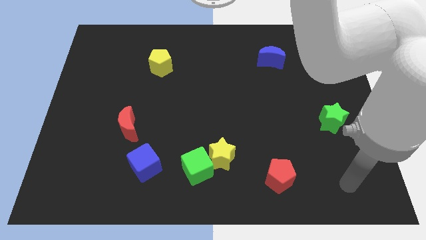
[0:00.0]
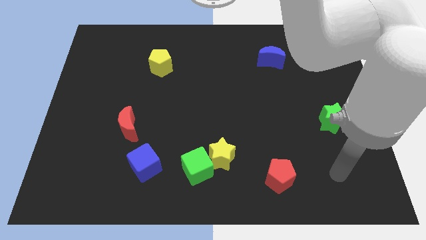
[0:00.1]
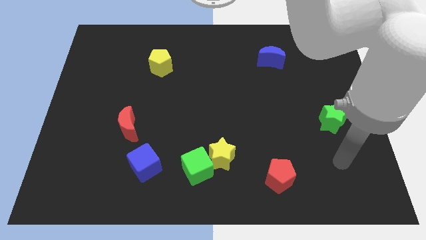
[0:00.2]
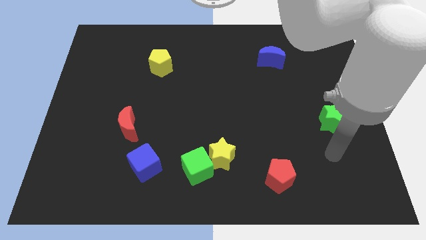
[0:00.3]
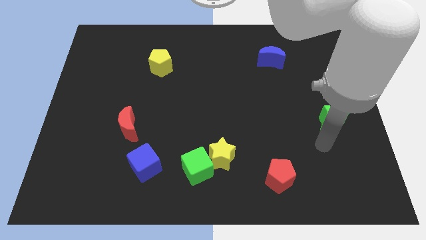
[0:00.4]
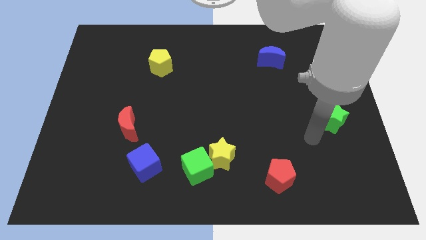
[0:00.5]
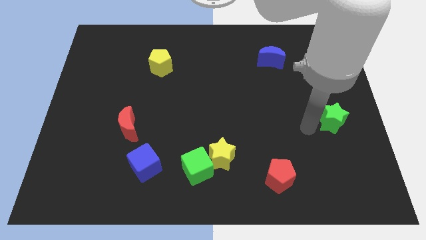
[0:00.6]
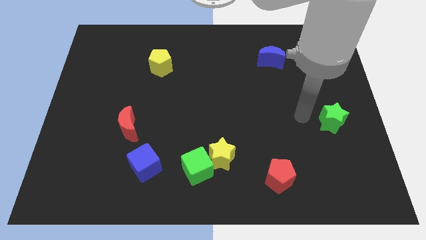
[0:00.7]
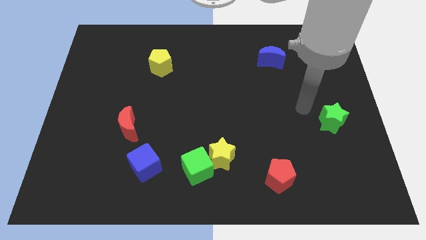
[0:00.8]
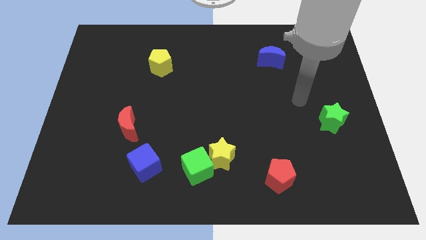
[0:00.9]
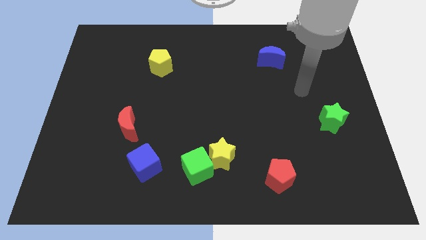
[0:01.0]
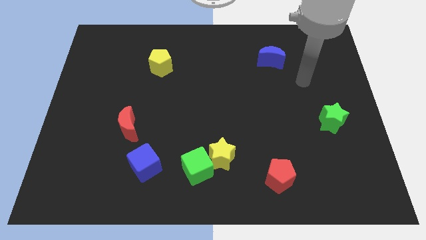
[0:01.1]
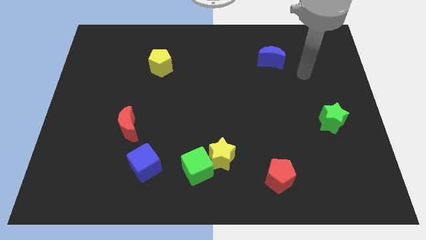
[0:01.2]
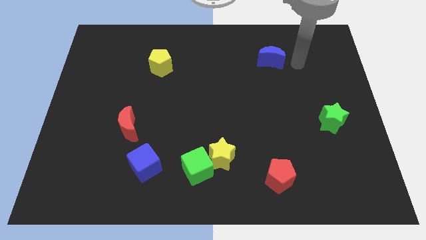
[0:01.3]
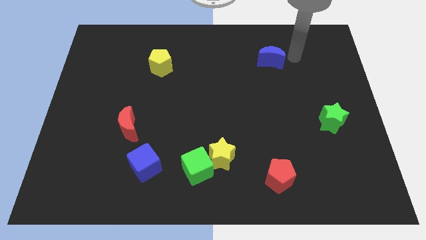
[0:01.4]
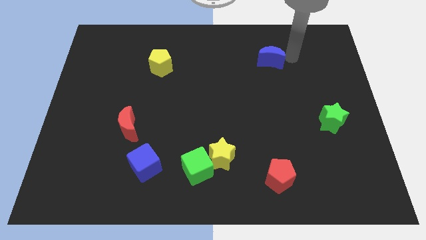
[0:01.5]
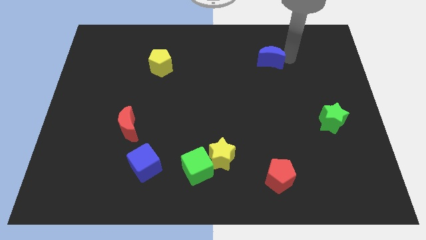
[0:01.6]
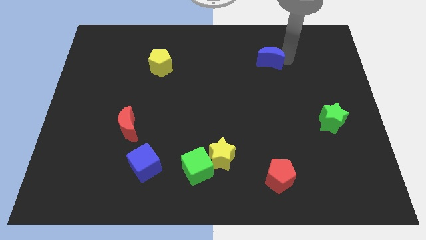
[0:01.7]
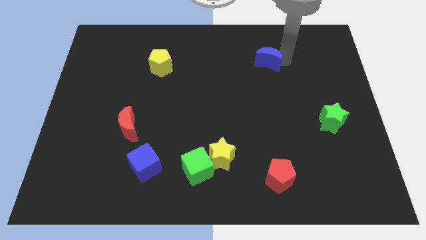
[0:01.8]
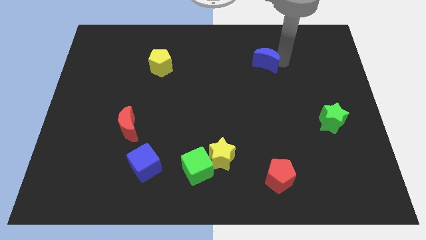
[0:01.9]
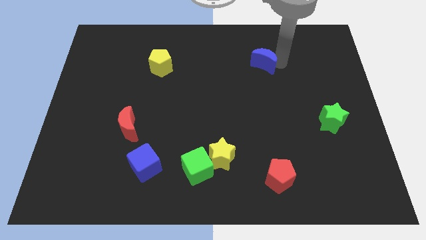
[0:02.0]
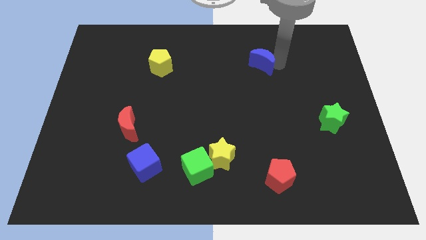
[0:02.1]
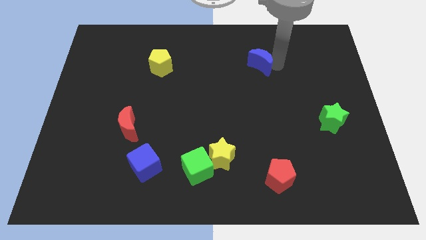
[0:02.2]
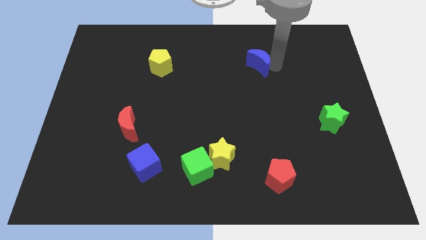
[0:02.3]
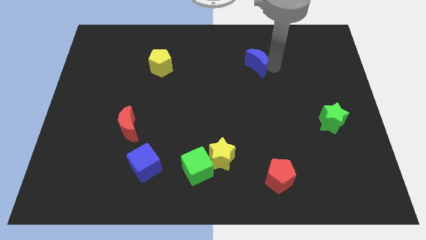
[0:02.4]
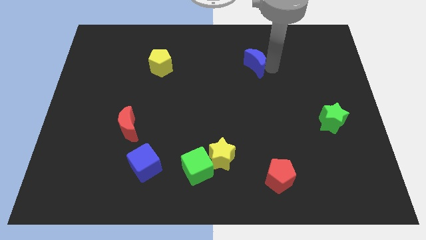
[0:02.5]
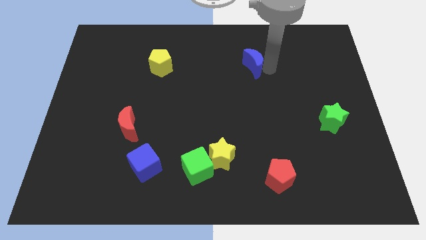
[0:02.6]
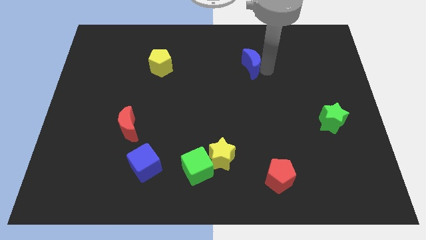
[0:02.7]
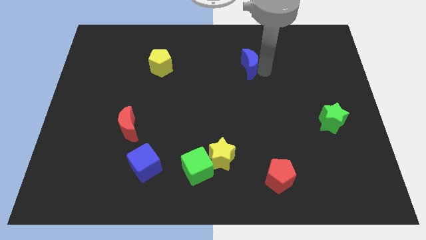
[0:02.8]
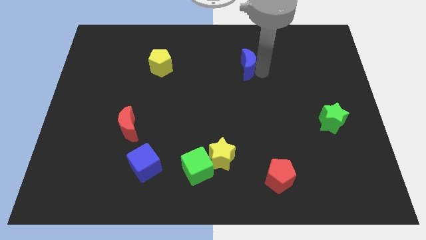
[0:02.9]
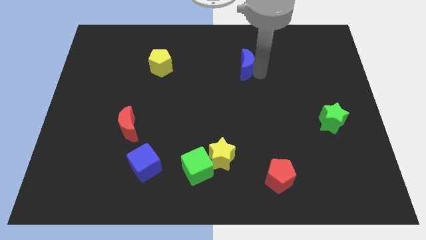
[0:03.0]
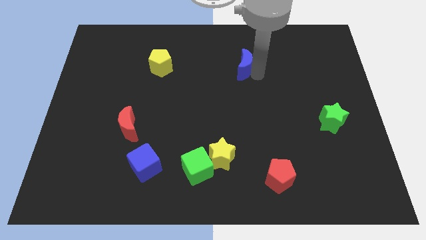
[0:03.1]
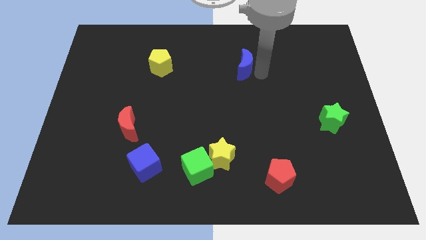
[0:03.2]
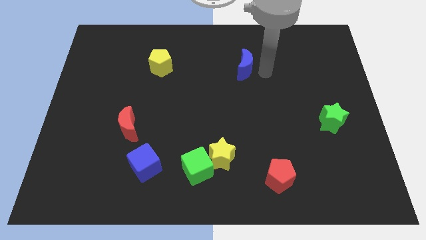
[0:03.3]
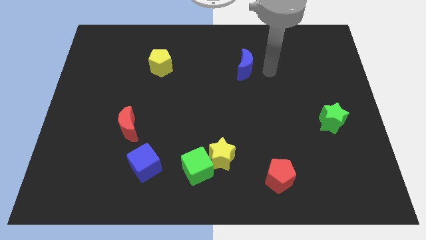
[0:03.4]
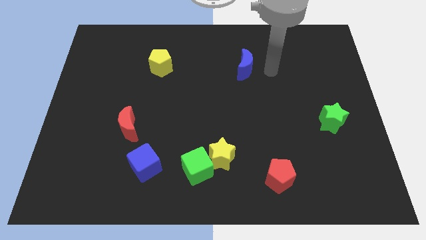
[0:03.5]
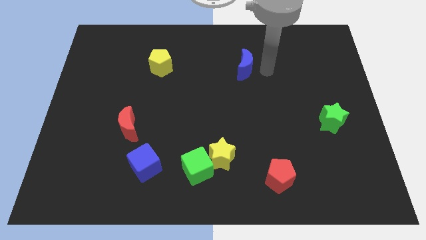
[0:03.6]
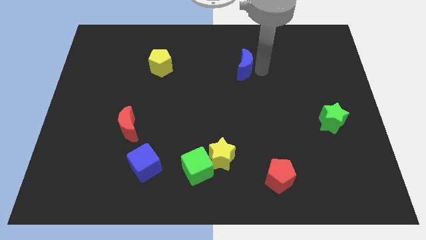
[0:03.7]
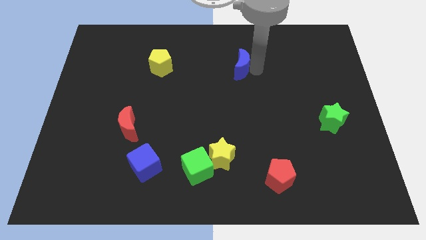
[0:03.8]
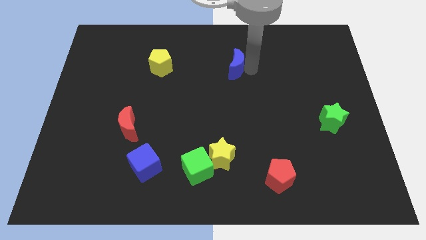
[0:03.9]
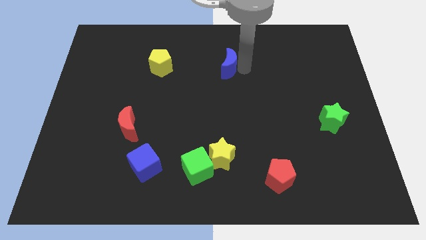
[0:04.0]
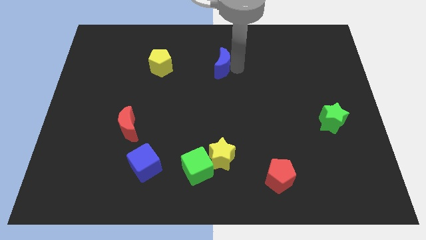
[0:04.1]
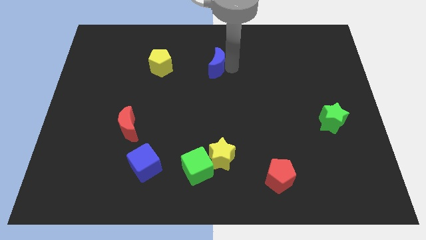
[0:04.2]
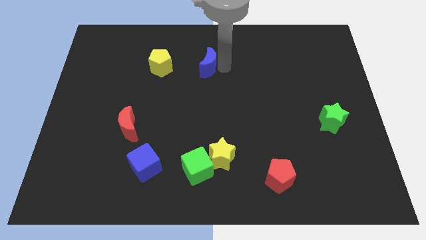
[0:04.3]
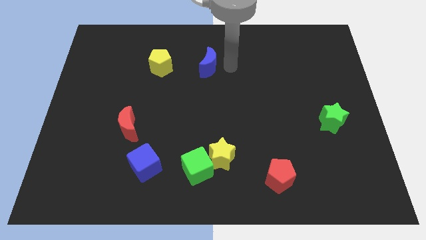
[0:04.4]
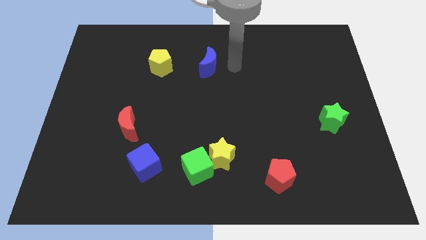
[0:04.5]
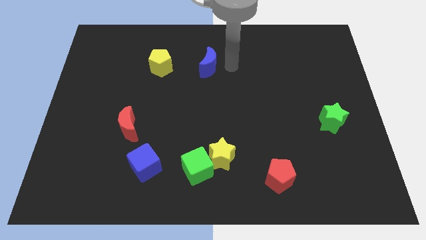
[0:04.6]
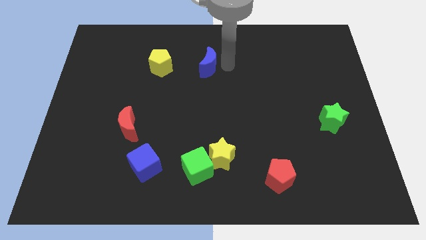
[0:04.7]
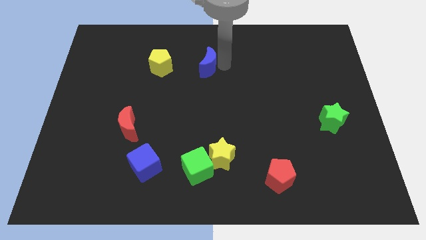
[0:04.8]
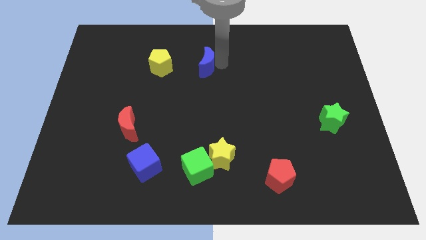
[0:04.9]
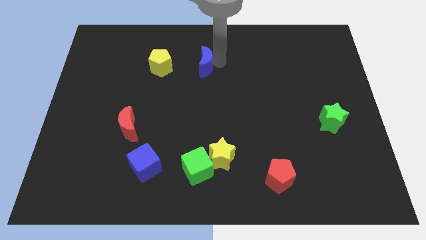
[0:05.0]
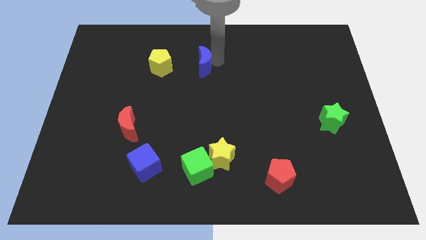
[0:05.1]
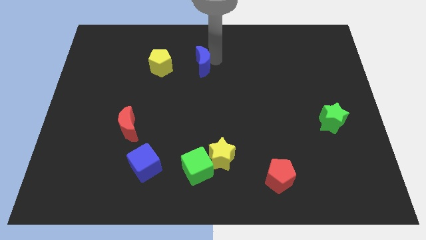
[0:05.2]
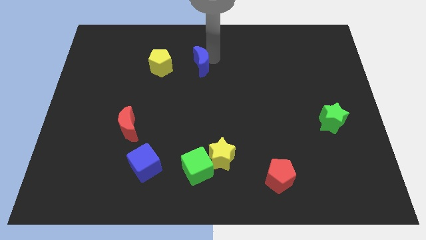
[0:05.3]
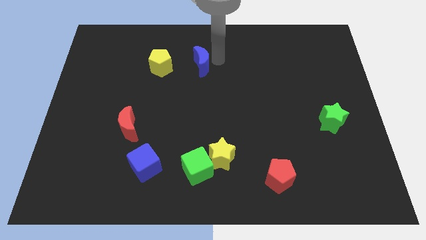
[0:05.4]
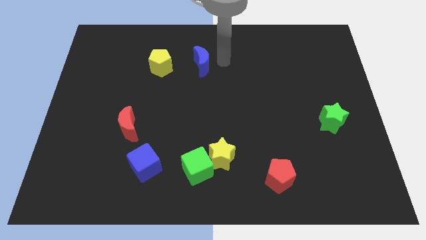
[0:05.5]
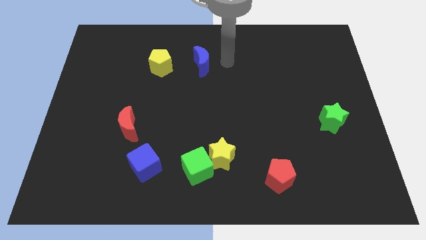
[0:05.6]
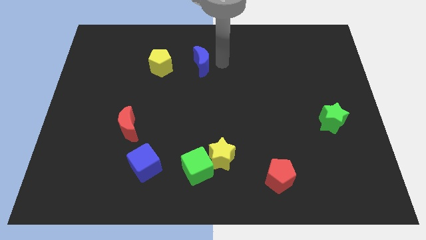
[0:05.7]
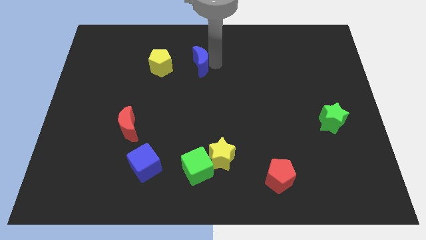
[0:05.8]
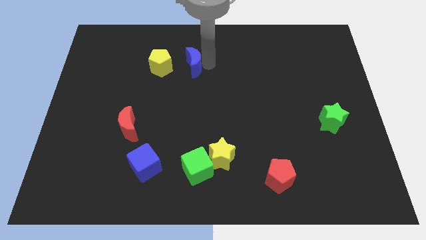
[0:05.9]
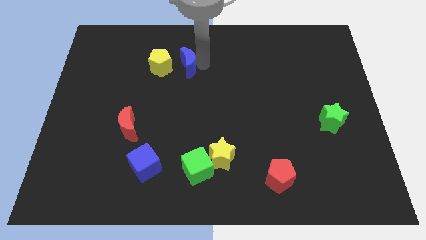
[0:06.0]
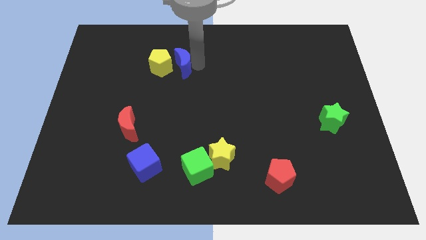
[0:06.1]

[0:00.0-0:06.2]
move the blue moon towards the yellow pentagon

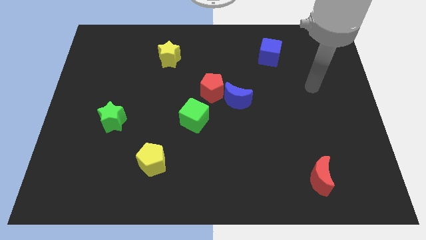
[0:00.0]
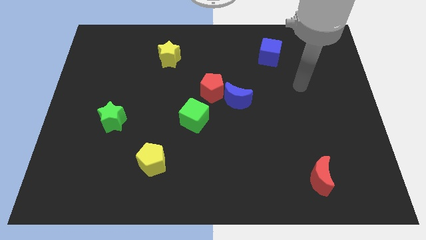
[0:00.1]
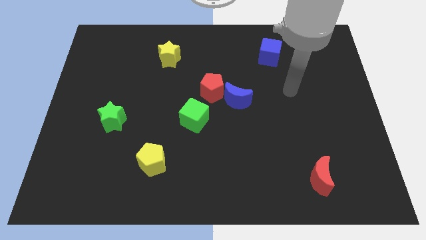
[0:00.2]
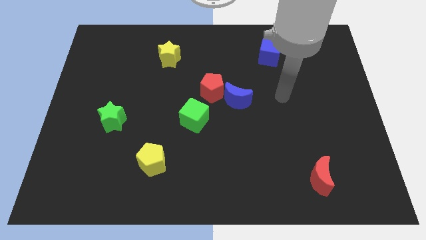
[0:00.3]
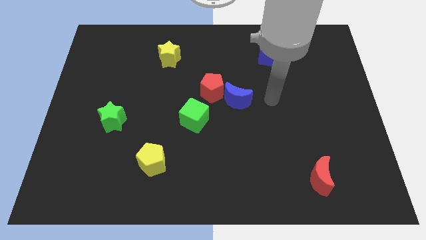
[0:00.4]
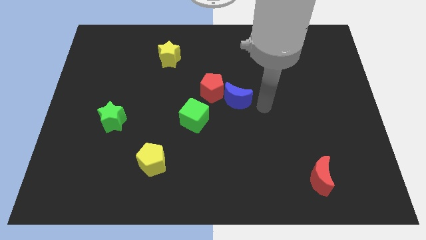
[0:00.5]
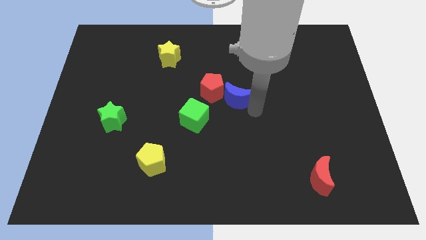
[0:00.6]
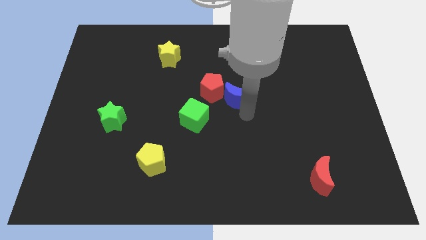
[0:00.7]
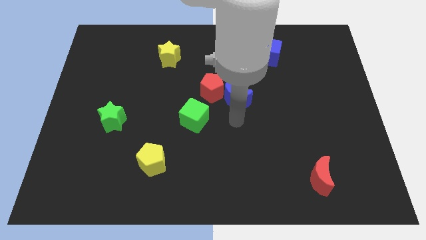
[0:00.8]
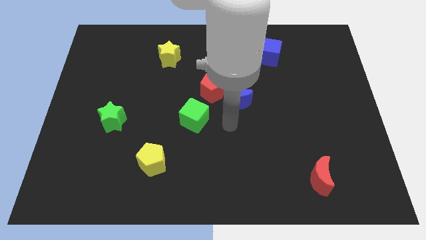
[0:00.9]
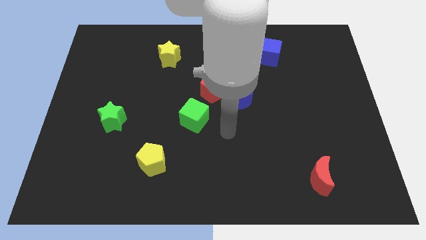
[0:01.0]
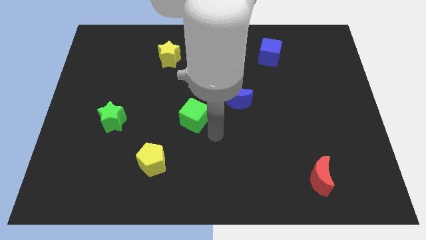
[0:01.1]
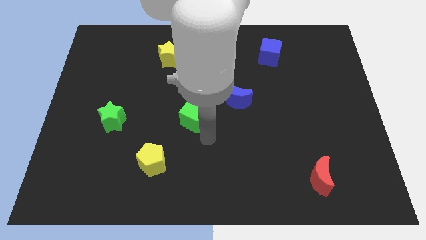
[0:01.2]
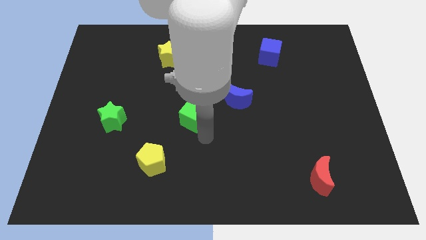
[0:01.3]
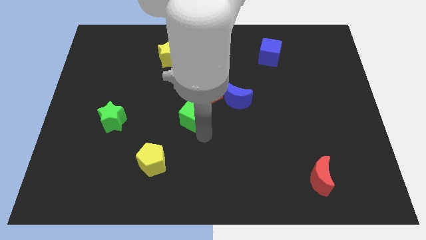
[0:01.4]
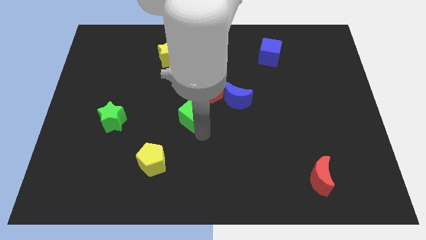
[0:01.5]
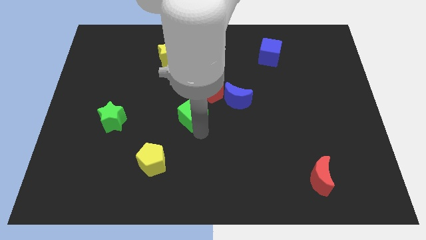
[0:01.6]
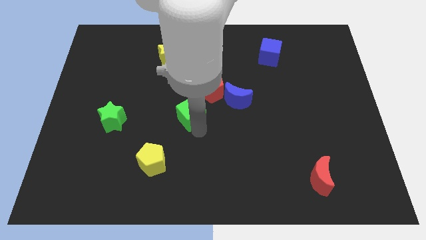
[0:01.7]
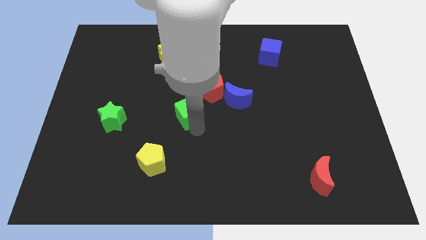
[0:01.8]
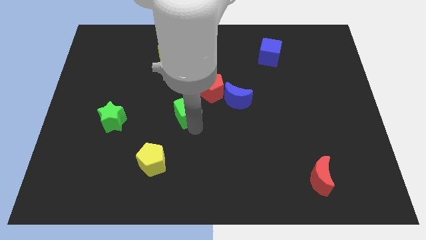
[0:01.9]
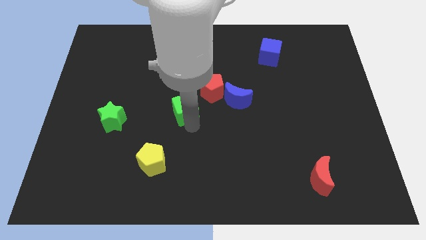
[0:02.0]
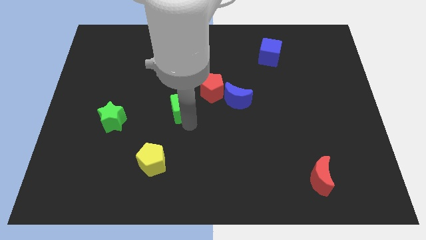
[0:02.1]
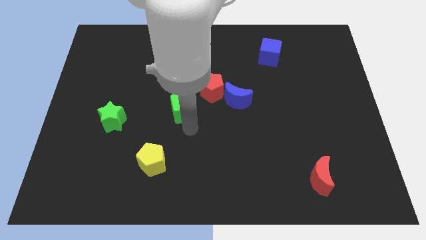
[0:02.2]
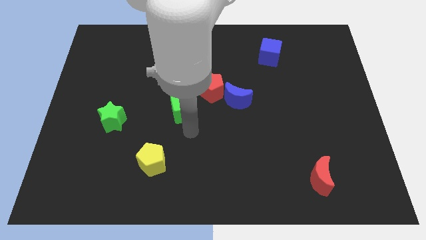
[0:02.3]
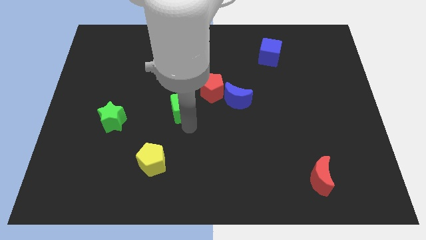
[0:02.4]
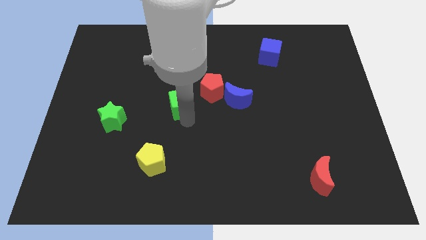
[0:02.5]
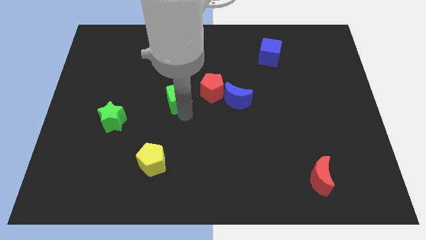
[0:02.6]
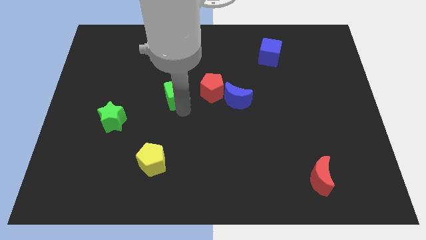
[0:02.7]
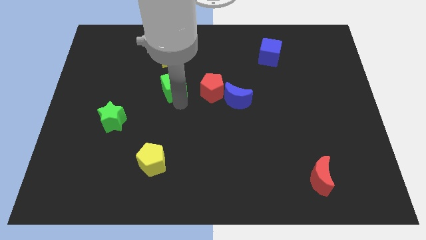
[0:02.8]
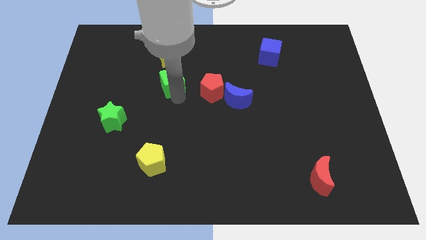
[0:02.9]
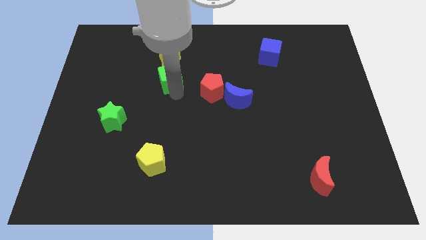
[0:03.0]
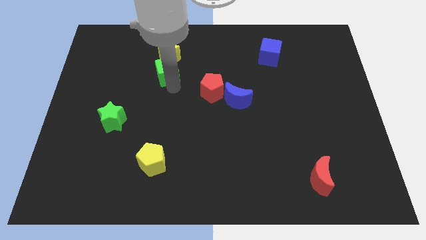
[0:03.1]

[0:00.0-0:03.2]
move the green cube close to the yellow star
